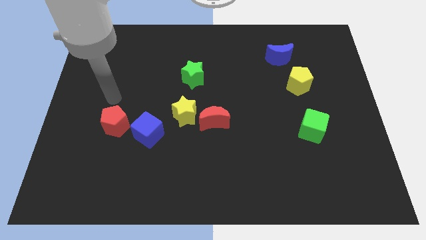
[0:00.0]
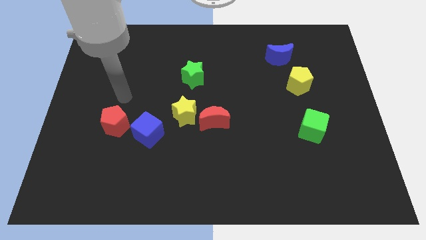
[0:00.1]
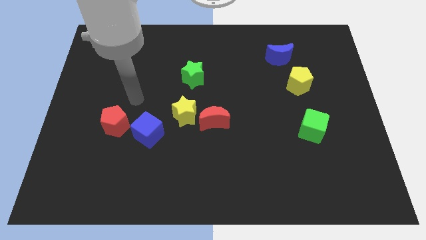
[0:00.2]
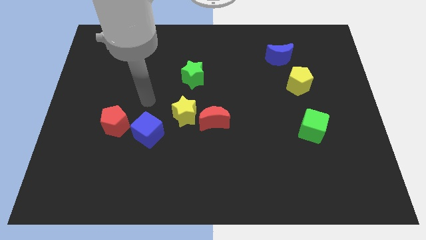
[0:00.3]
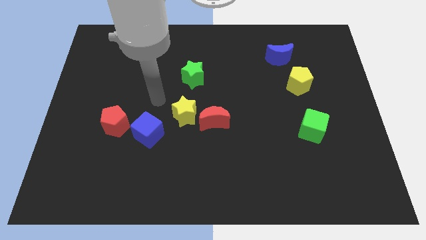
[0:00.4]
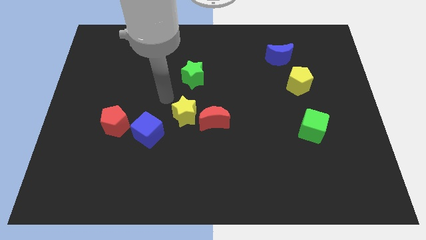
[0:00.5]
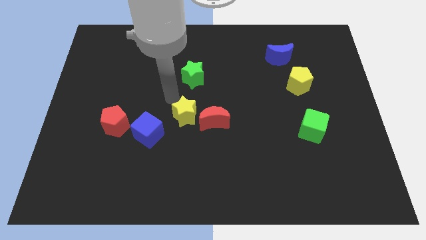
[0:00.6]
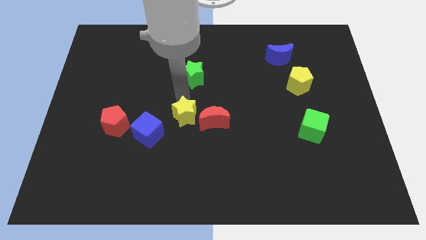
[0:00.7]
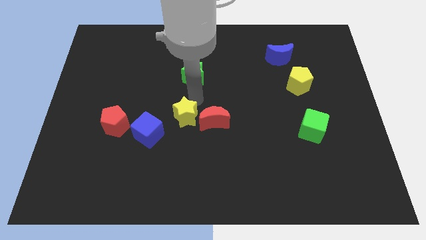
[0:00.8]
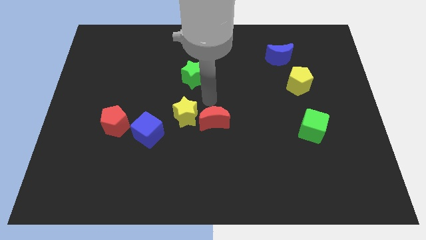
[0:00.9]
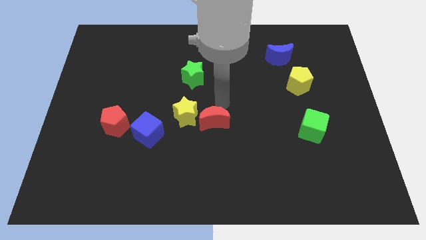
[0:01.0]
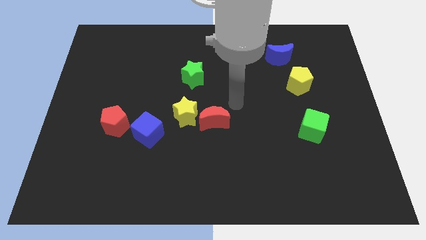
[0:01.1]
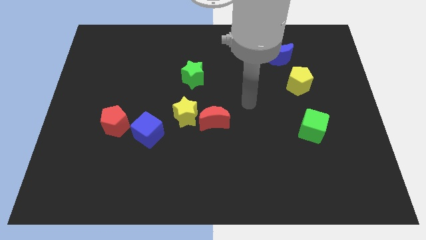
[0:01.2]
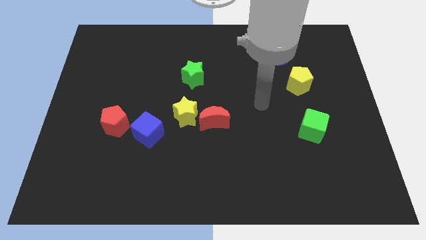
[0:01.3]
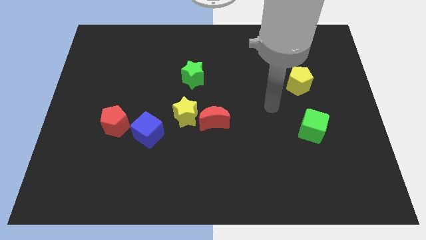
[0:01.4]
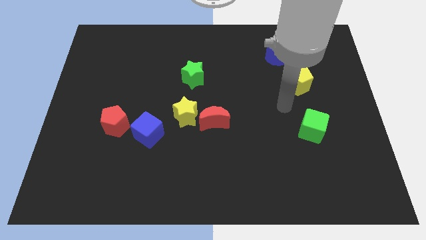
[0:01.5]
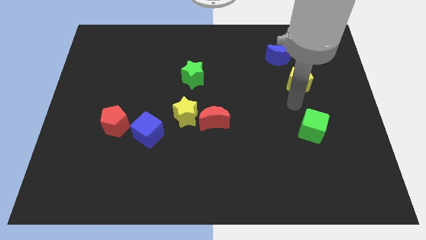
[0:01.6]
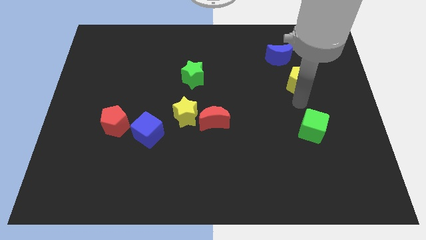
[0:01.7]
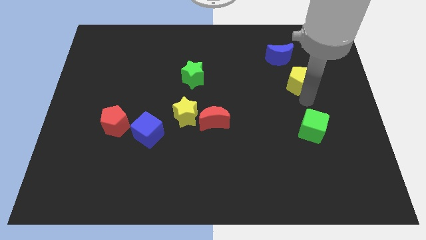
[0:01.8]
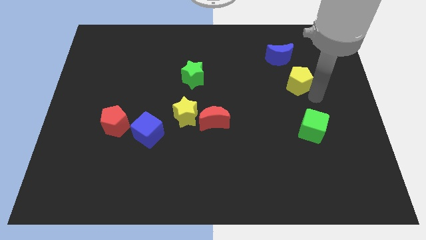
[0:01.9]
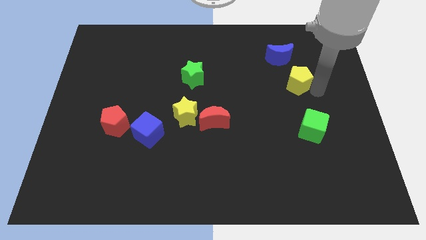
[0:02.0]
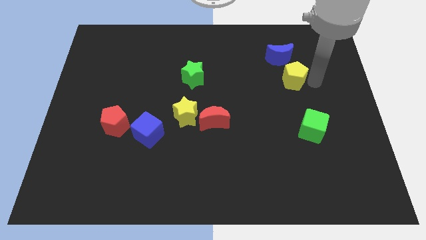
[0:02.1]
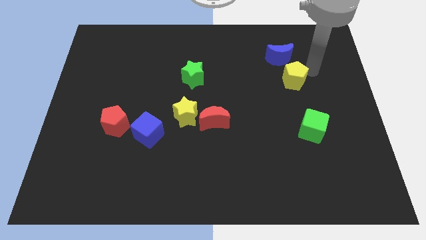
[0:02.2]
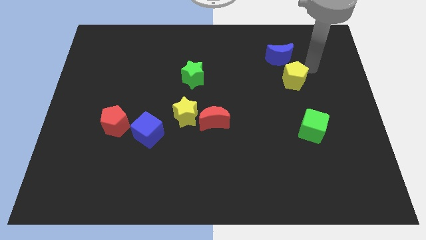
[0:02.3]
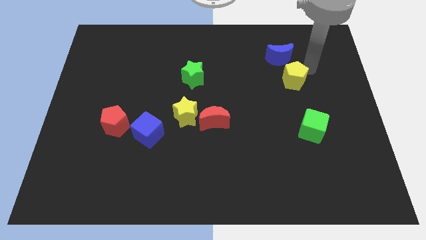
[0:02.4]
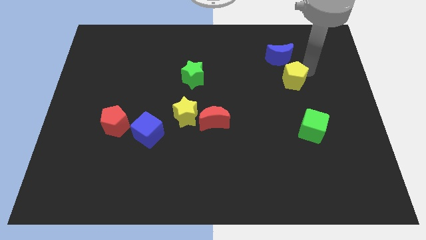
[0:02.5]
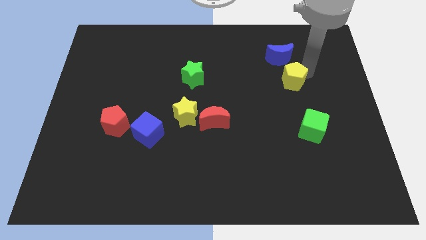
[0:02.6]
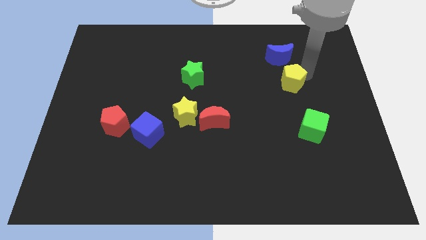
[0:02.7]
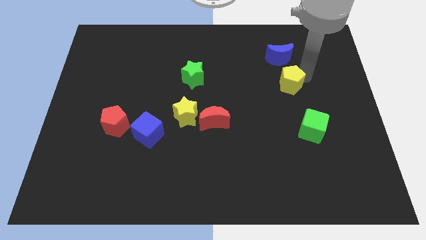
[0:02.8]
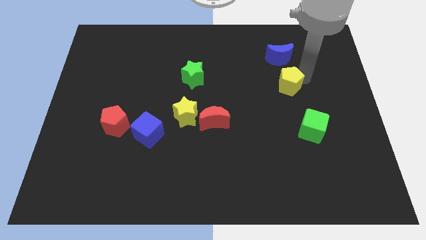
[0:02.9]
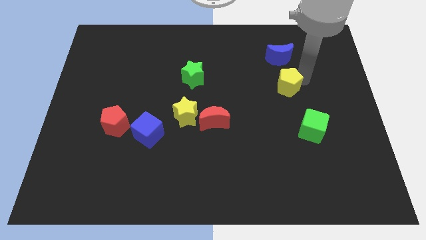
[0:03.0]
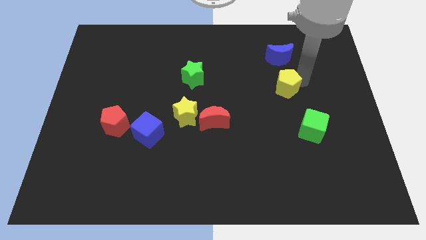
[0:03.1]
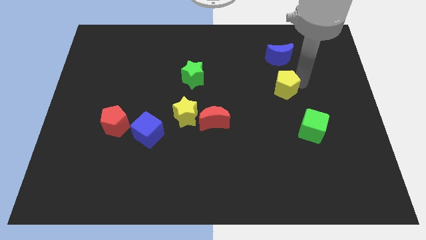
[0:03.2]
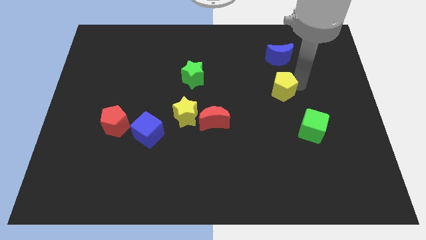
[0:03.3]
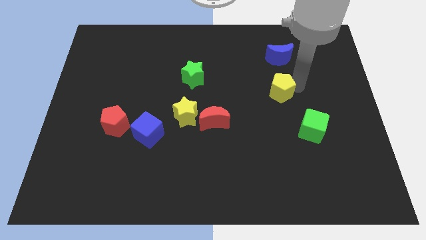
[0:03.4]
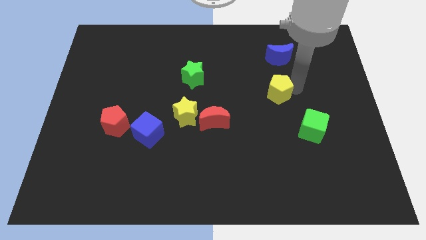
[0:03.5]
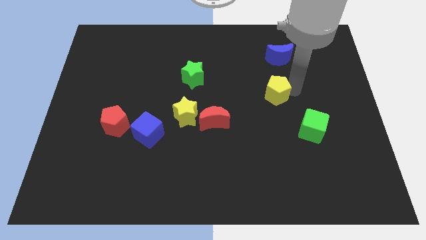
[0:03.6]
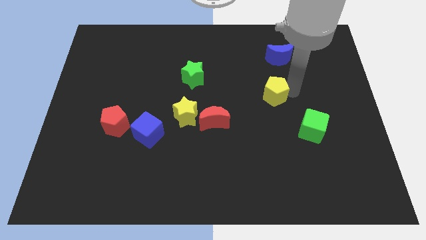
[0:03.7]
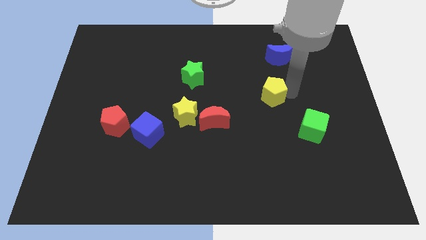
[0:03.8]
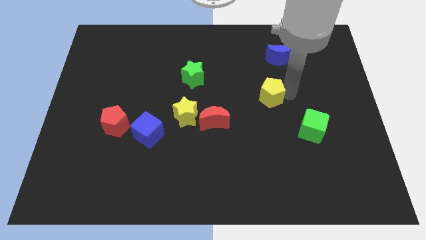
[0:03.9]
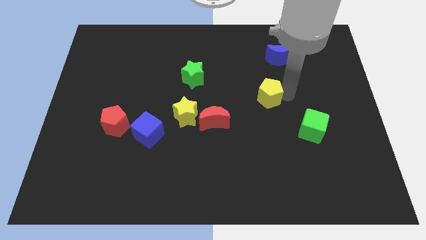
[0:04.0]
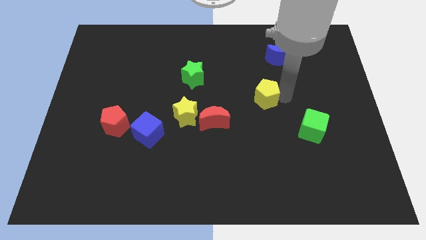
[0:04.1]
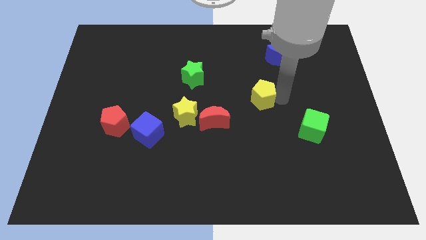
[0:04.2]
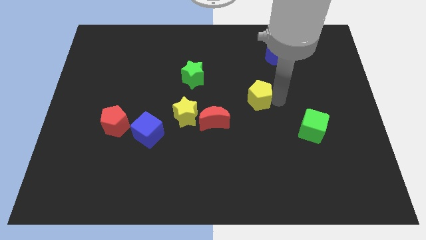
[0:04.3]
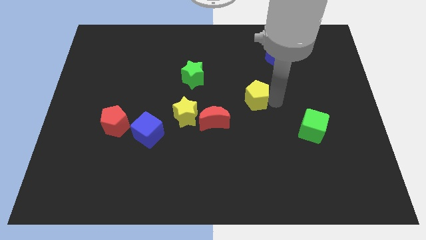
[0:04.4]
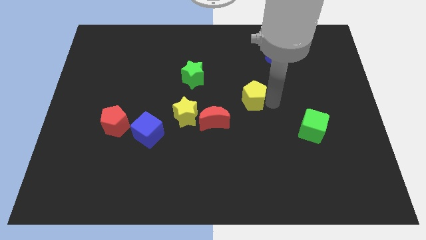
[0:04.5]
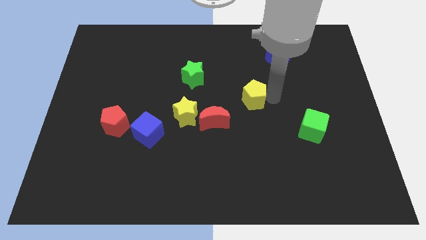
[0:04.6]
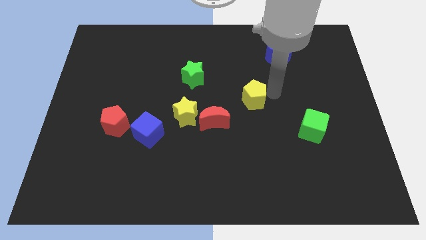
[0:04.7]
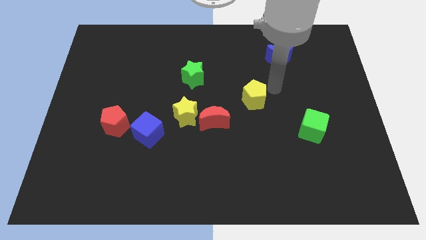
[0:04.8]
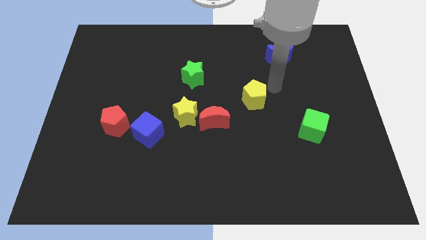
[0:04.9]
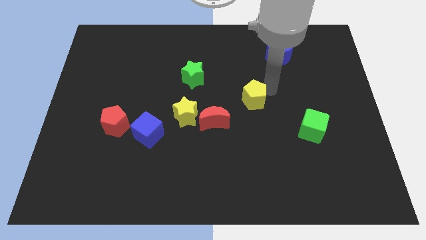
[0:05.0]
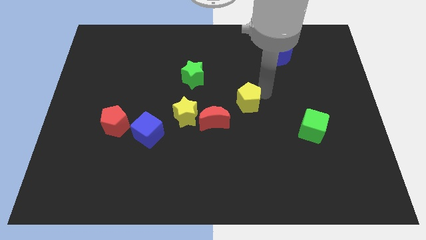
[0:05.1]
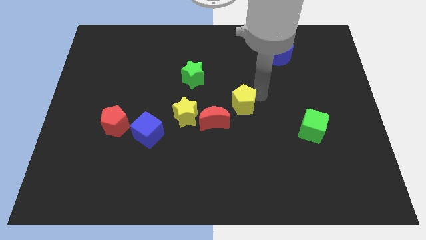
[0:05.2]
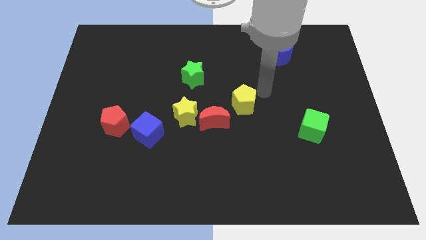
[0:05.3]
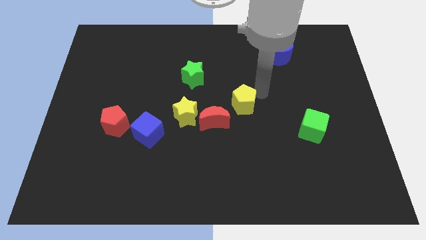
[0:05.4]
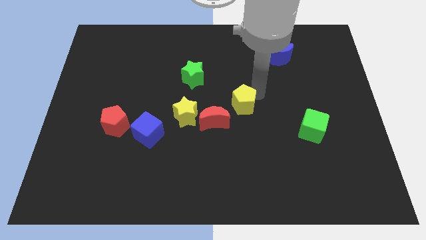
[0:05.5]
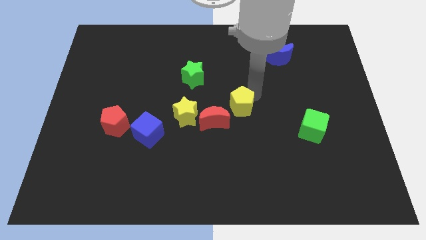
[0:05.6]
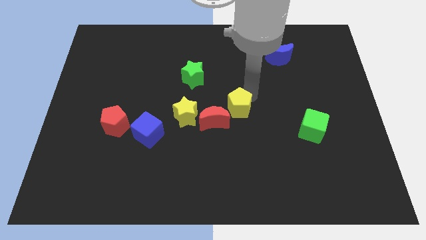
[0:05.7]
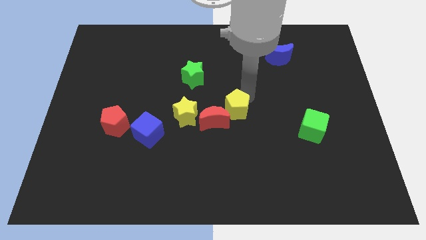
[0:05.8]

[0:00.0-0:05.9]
move the yellow pentagon to the red moon

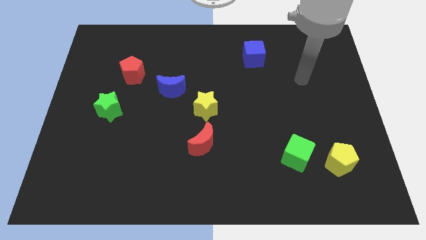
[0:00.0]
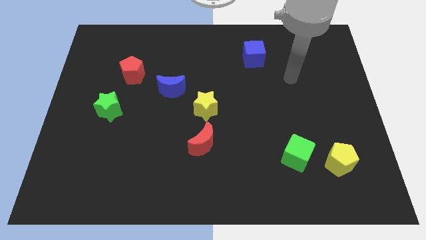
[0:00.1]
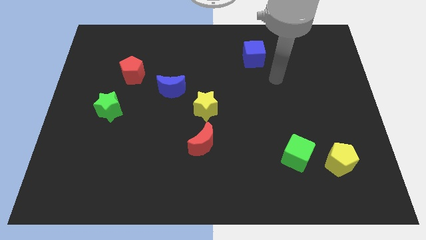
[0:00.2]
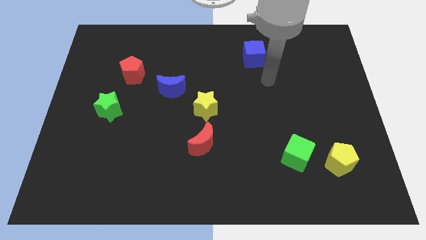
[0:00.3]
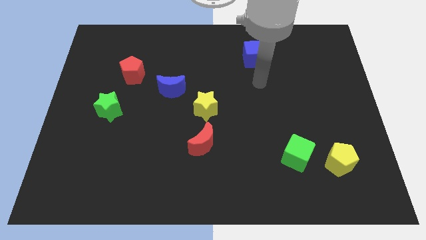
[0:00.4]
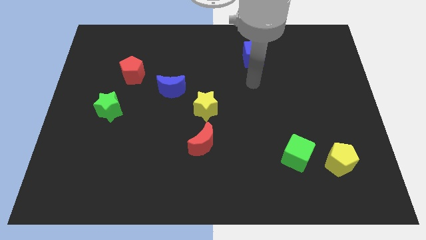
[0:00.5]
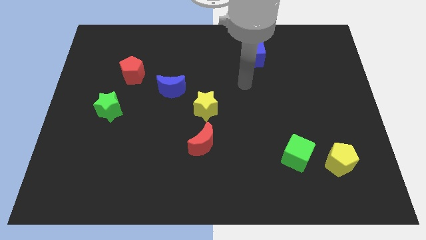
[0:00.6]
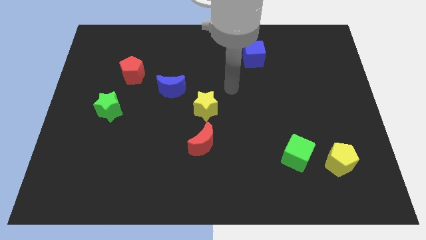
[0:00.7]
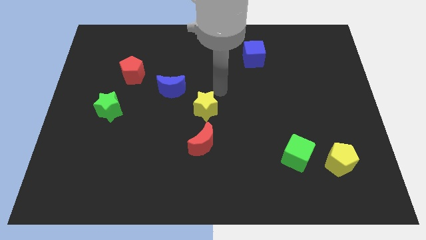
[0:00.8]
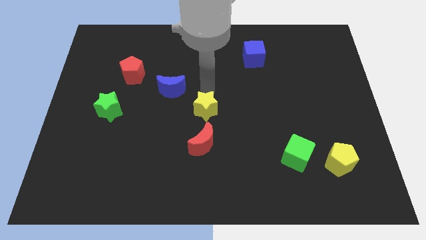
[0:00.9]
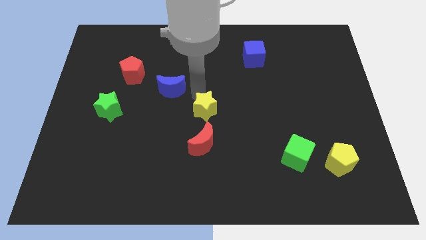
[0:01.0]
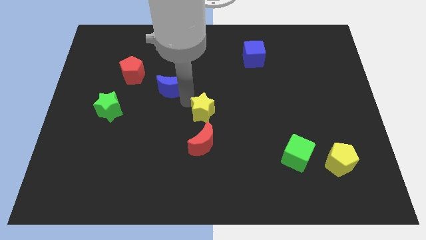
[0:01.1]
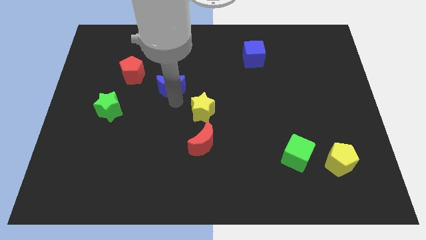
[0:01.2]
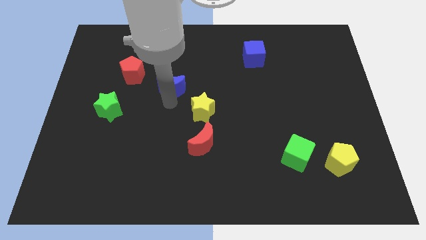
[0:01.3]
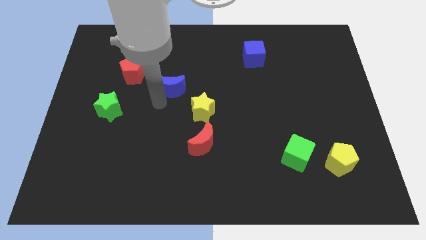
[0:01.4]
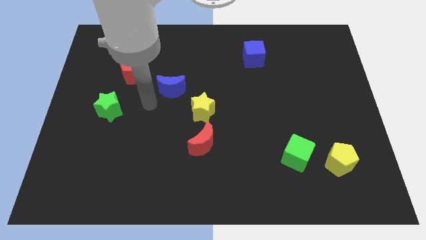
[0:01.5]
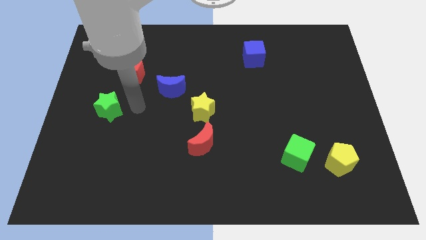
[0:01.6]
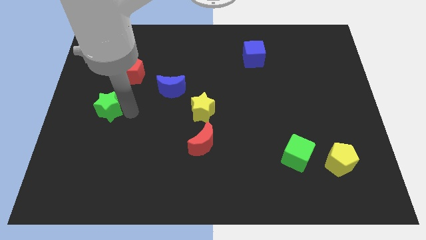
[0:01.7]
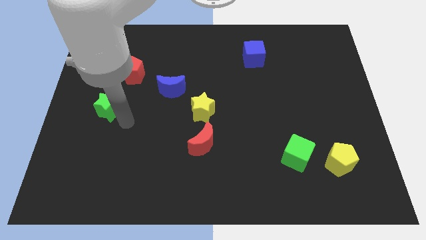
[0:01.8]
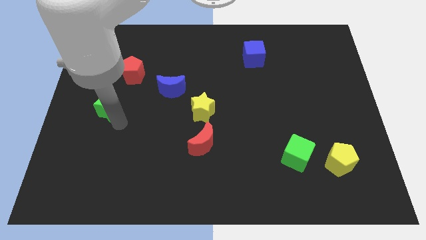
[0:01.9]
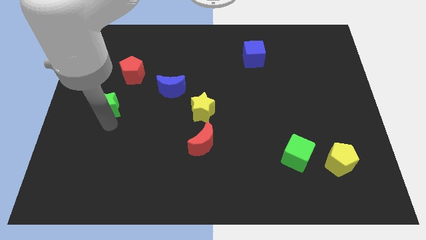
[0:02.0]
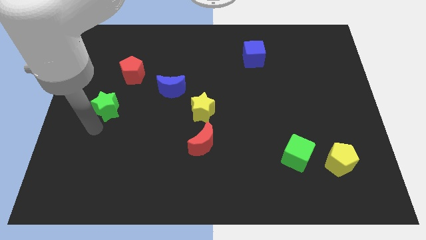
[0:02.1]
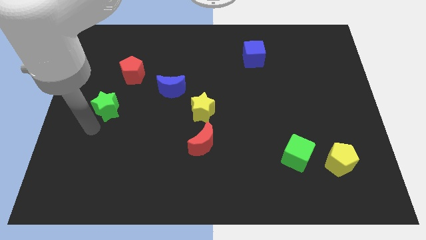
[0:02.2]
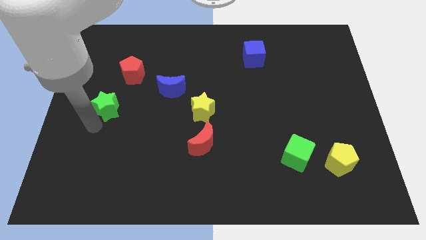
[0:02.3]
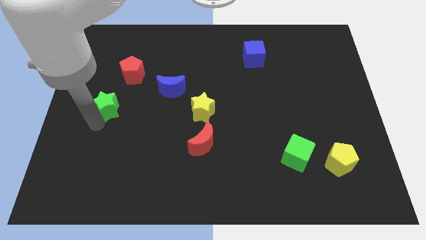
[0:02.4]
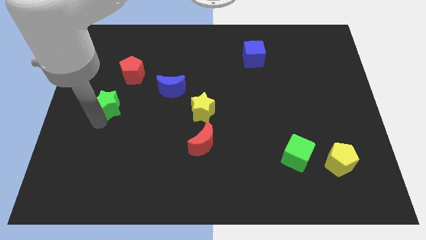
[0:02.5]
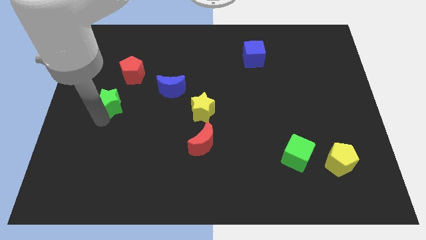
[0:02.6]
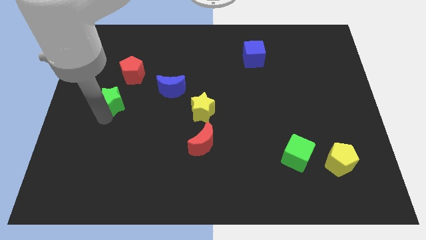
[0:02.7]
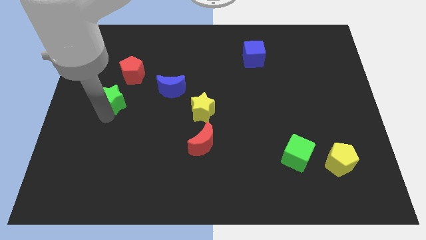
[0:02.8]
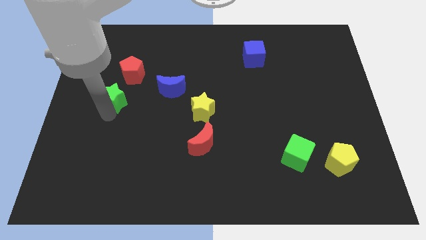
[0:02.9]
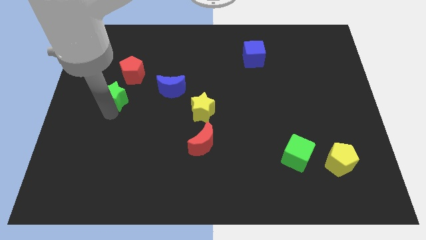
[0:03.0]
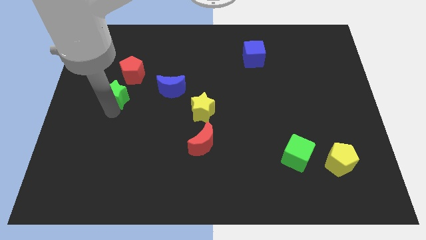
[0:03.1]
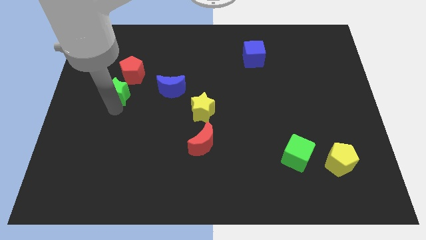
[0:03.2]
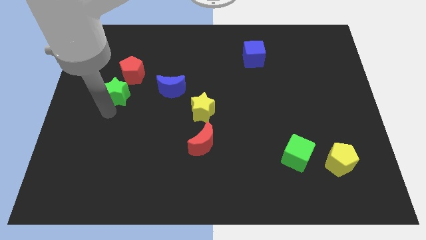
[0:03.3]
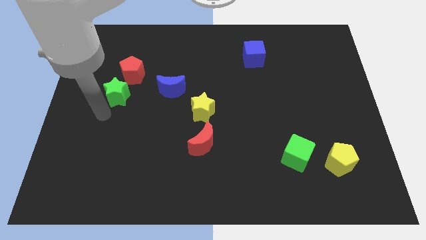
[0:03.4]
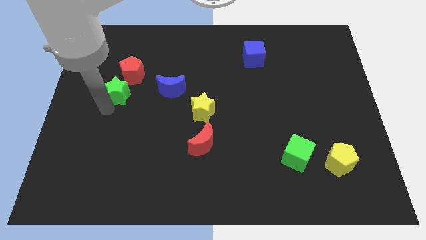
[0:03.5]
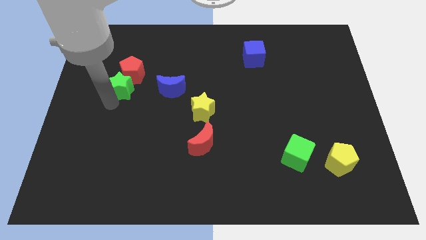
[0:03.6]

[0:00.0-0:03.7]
slide the green star next to the red pentagon
